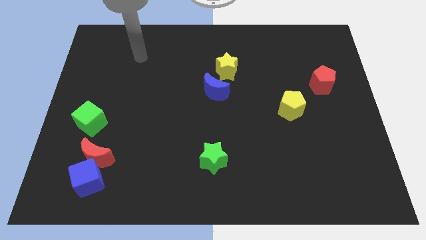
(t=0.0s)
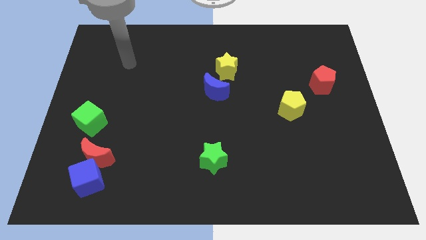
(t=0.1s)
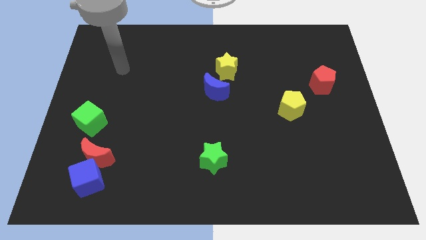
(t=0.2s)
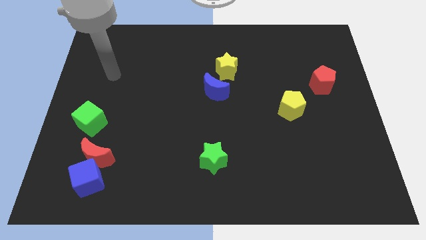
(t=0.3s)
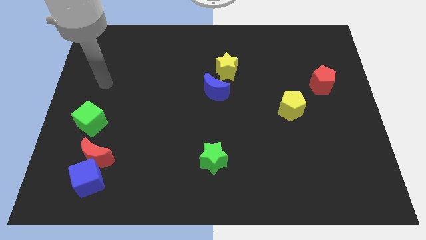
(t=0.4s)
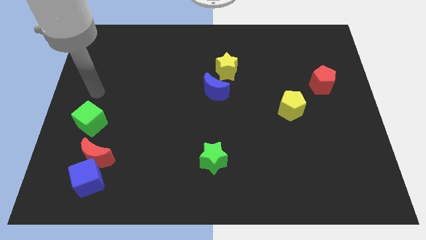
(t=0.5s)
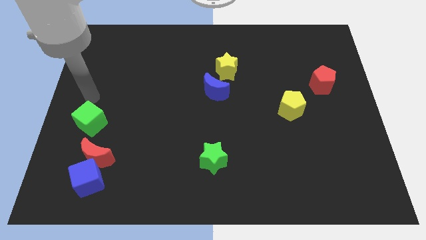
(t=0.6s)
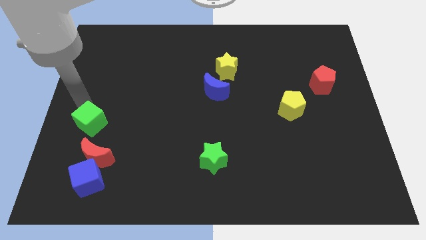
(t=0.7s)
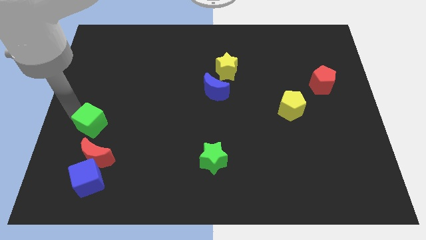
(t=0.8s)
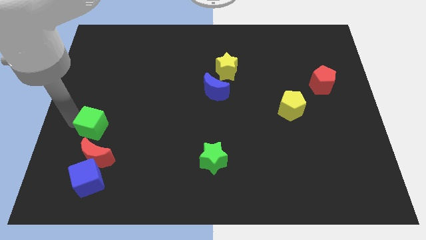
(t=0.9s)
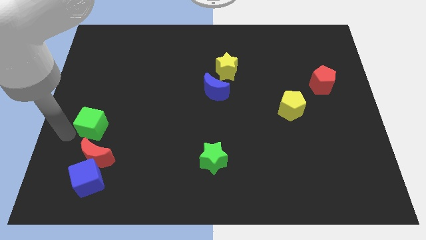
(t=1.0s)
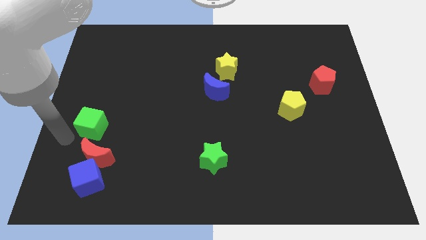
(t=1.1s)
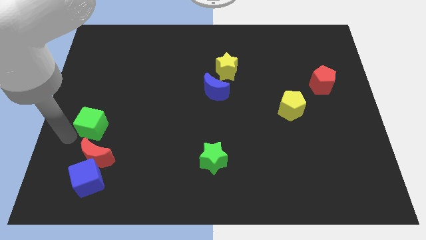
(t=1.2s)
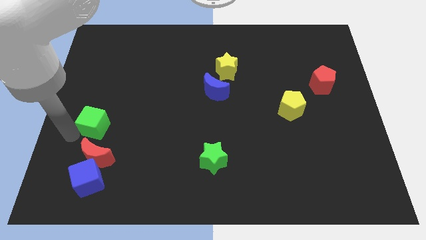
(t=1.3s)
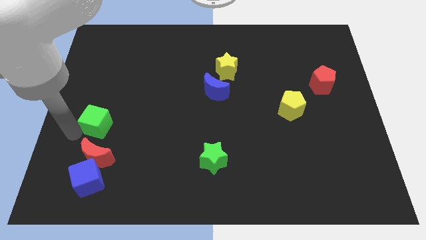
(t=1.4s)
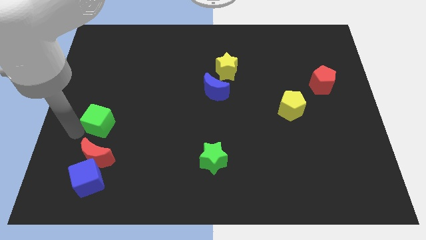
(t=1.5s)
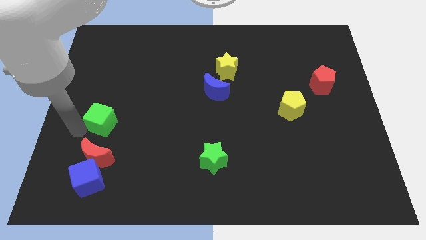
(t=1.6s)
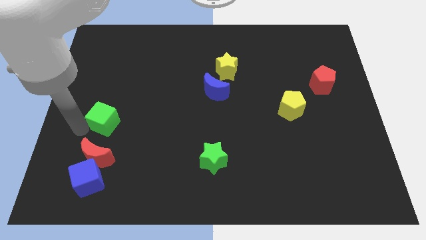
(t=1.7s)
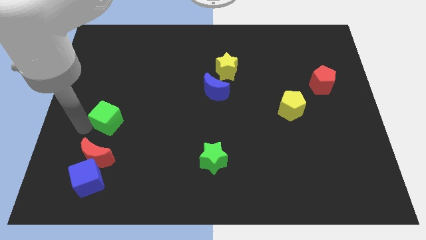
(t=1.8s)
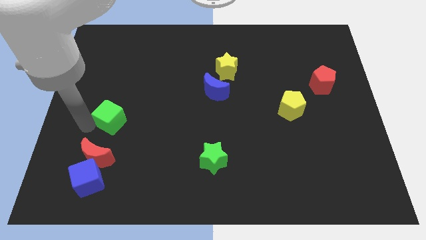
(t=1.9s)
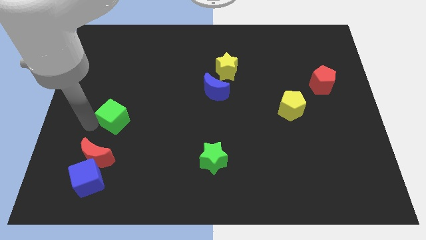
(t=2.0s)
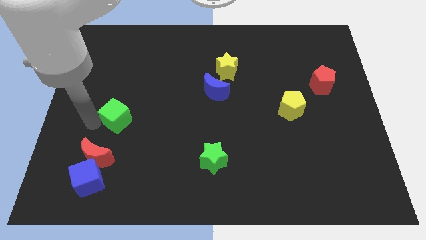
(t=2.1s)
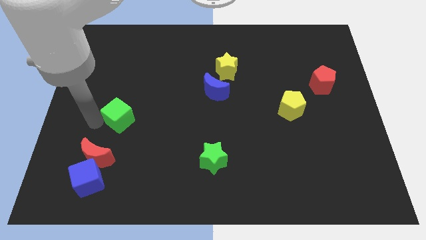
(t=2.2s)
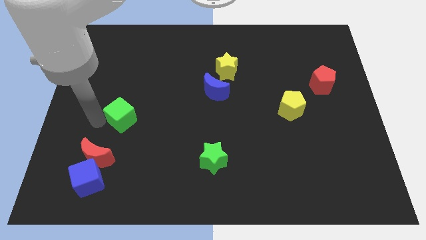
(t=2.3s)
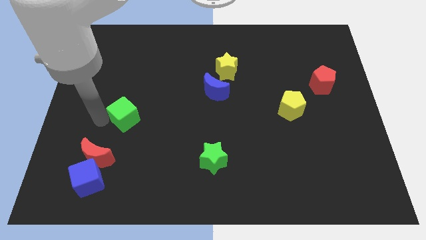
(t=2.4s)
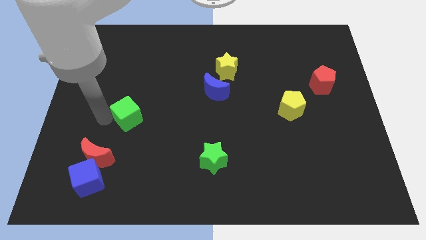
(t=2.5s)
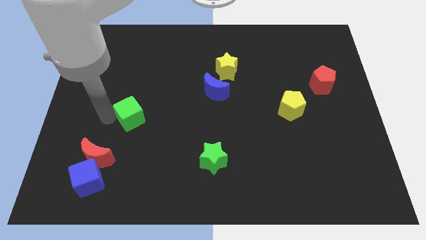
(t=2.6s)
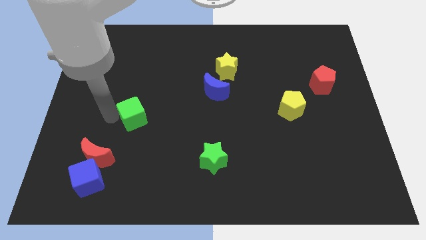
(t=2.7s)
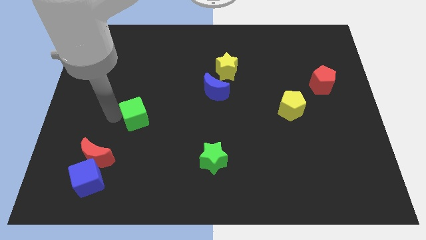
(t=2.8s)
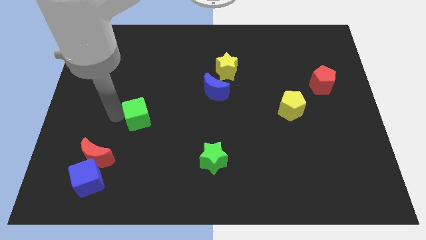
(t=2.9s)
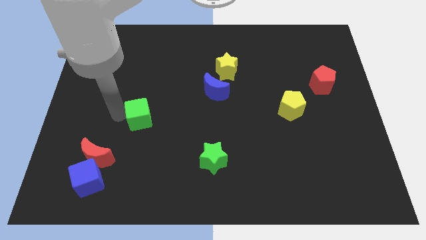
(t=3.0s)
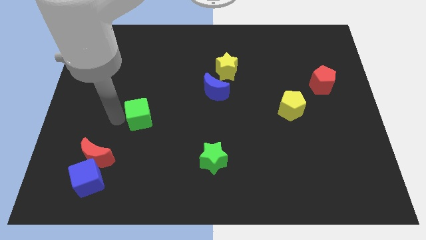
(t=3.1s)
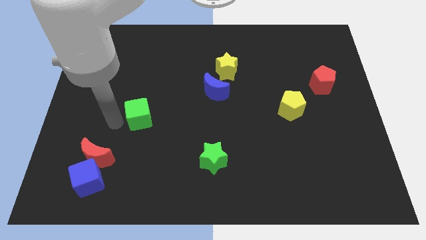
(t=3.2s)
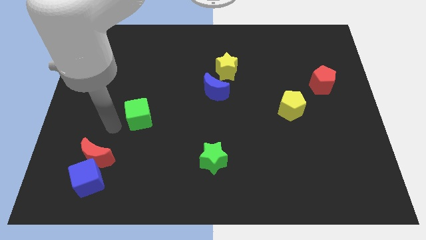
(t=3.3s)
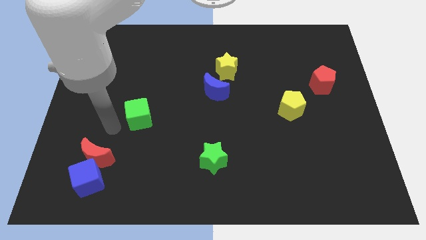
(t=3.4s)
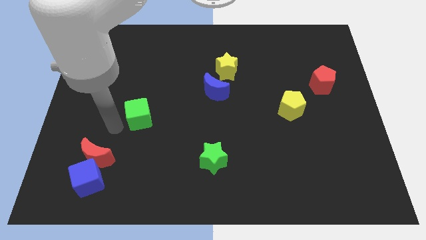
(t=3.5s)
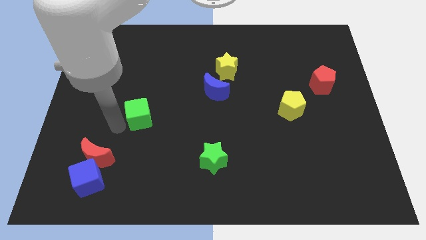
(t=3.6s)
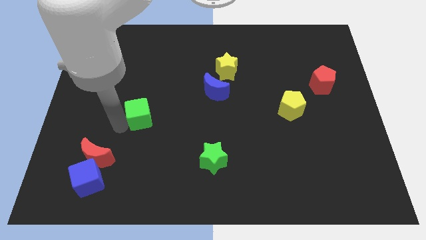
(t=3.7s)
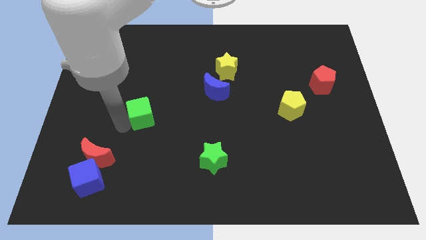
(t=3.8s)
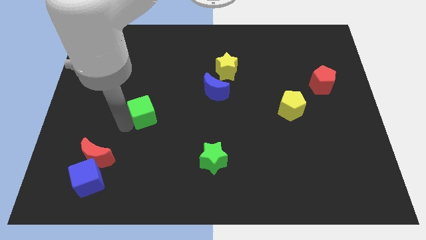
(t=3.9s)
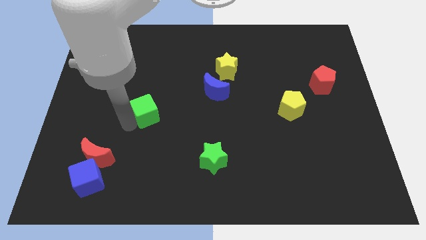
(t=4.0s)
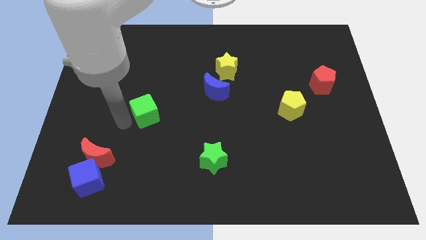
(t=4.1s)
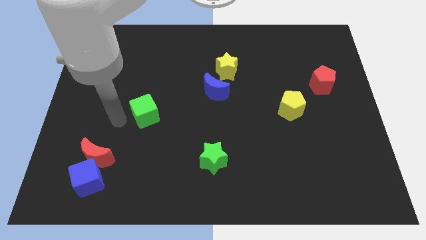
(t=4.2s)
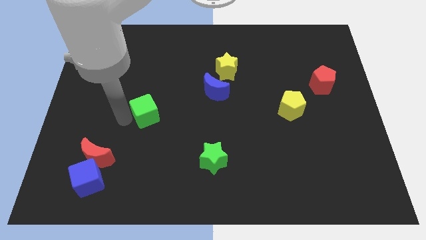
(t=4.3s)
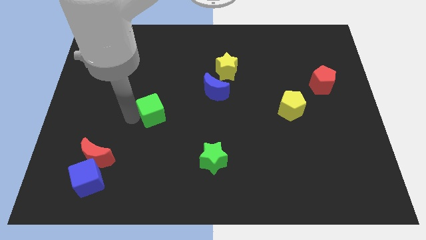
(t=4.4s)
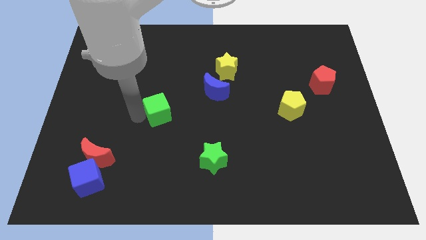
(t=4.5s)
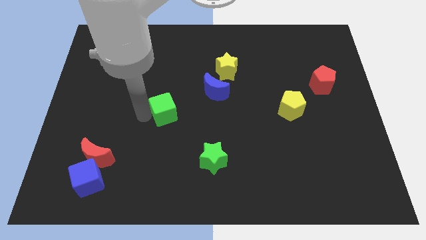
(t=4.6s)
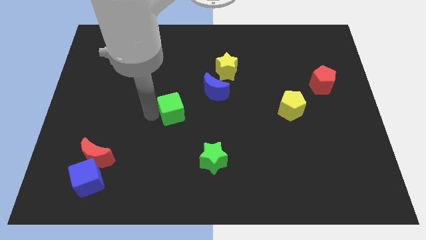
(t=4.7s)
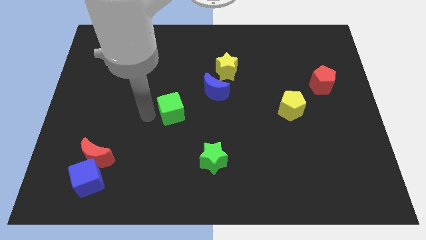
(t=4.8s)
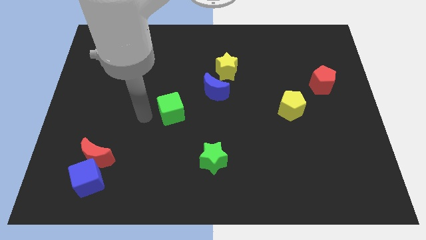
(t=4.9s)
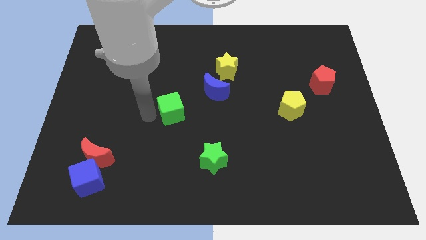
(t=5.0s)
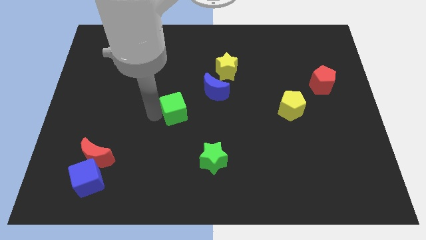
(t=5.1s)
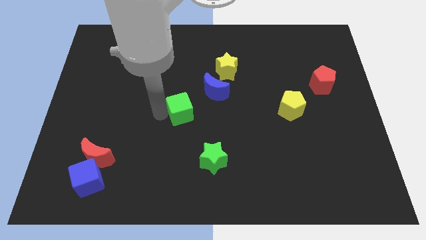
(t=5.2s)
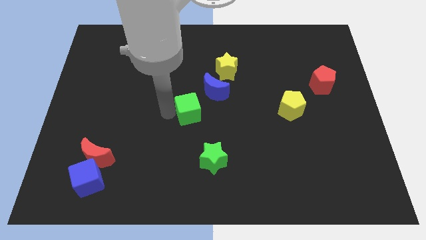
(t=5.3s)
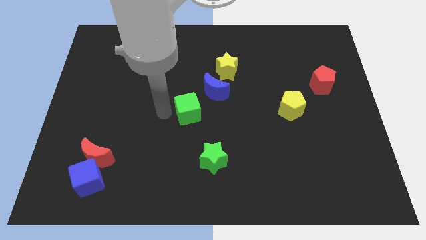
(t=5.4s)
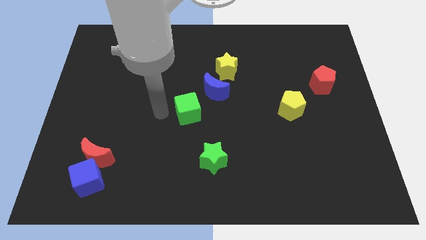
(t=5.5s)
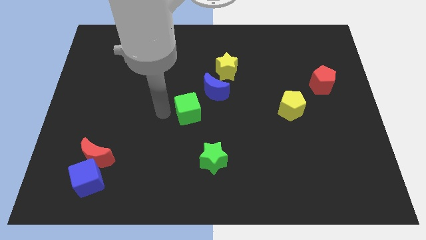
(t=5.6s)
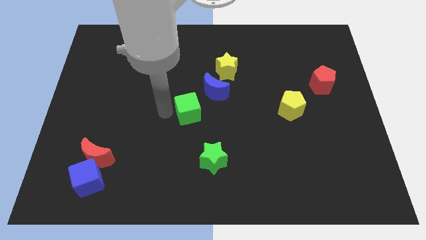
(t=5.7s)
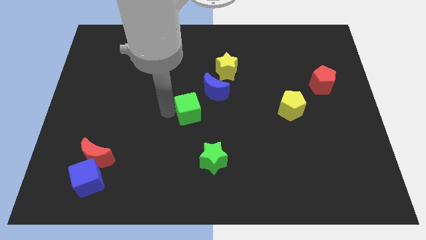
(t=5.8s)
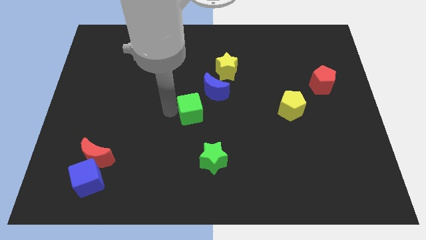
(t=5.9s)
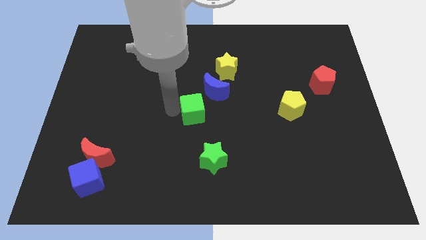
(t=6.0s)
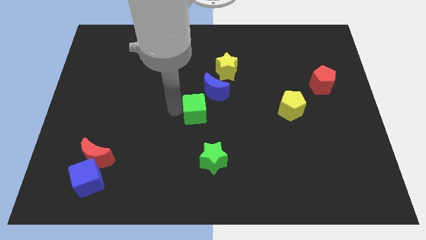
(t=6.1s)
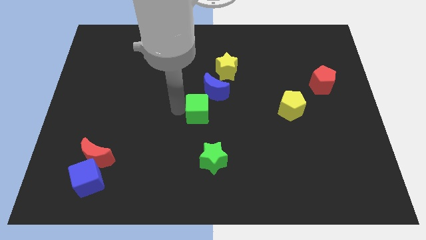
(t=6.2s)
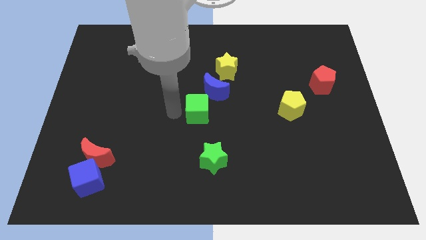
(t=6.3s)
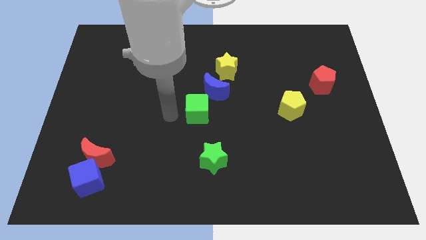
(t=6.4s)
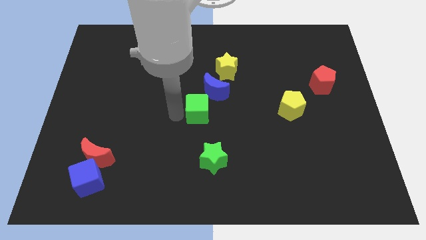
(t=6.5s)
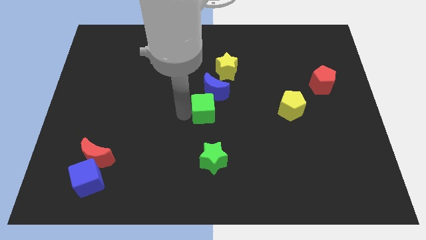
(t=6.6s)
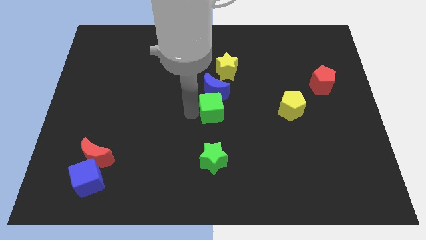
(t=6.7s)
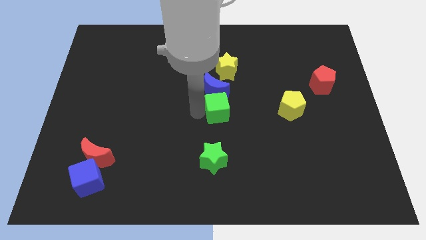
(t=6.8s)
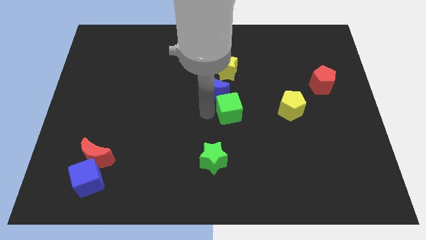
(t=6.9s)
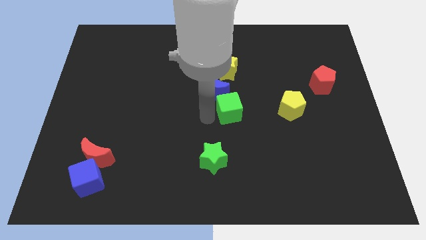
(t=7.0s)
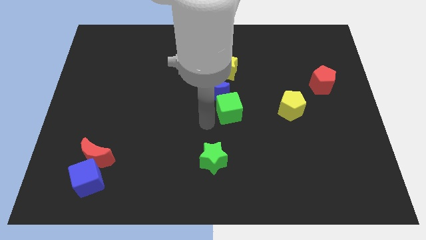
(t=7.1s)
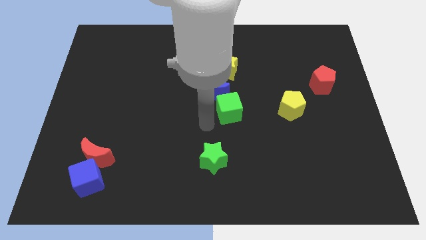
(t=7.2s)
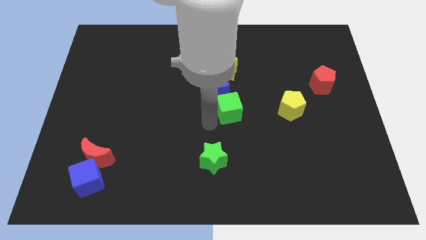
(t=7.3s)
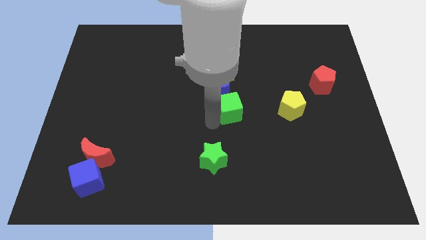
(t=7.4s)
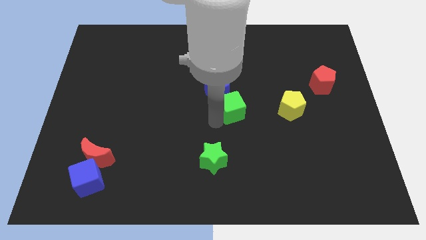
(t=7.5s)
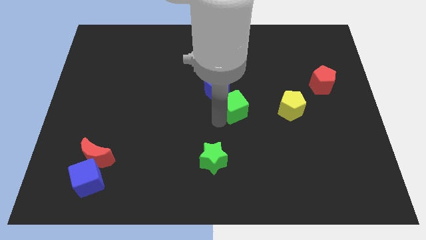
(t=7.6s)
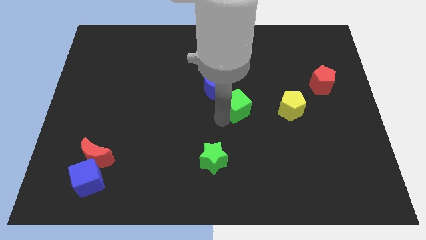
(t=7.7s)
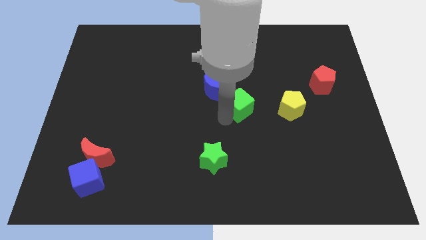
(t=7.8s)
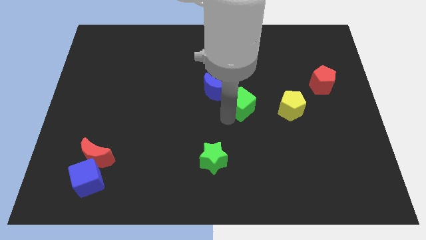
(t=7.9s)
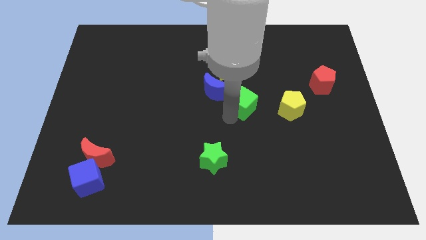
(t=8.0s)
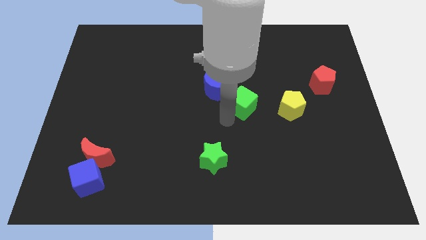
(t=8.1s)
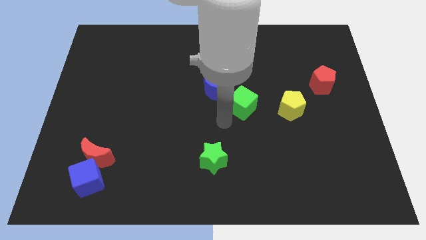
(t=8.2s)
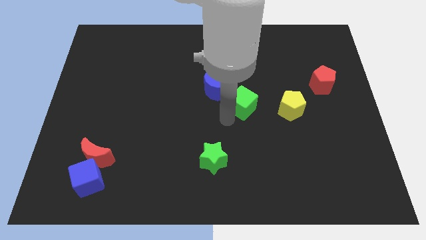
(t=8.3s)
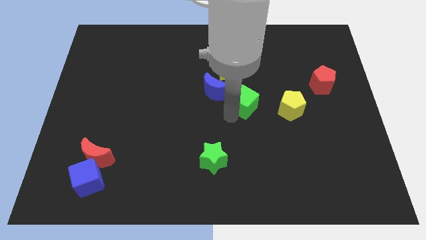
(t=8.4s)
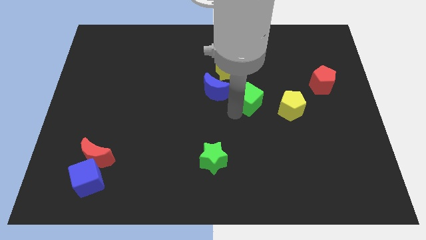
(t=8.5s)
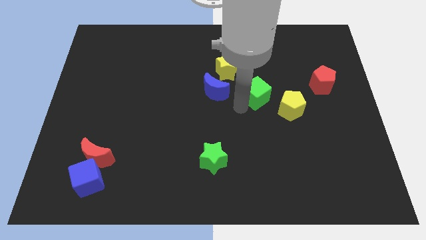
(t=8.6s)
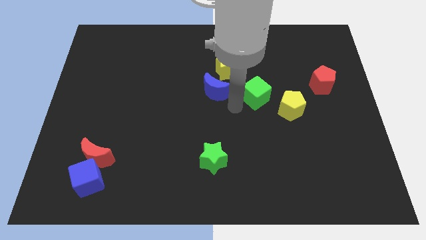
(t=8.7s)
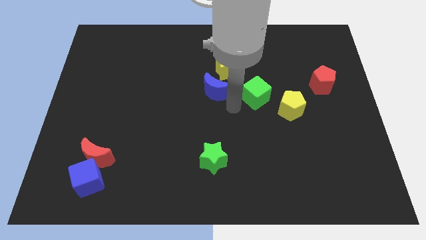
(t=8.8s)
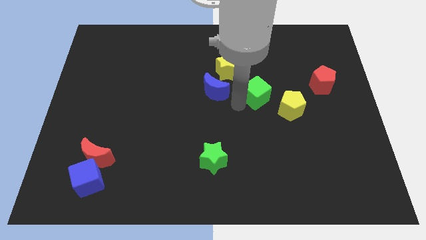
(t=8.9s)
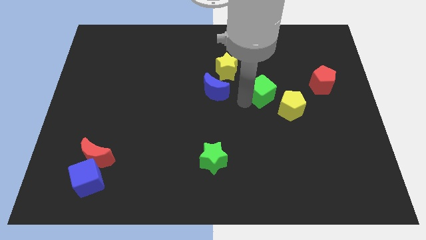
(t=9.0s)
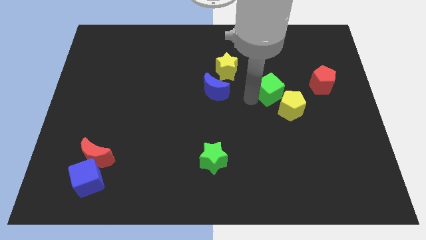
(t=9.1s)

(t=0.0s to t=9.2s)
push the green cube left of the red pentagon
